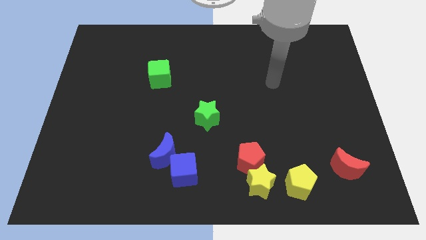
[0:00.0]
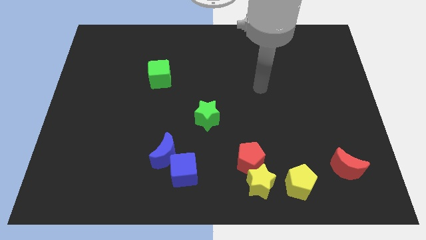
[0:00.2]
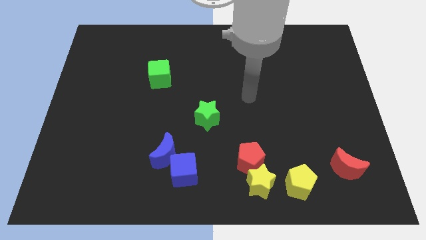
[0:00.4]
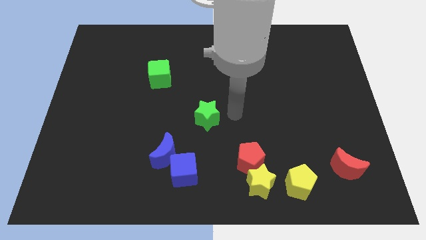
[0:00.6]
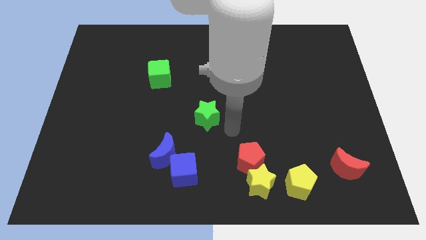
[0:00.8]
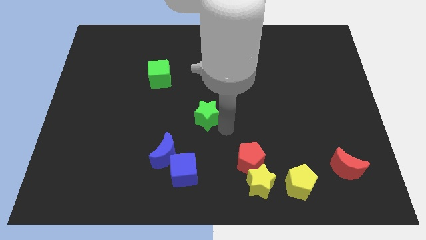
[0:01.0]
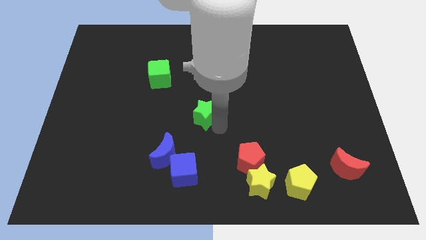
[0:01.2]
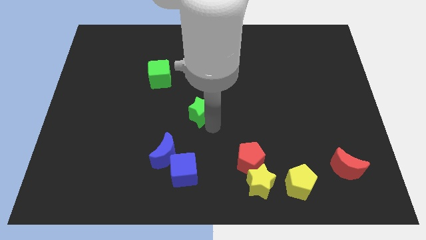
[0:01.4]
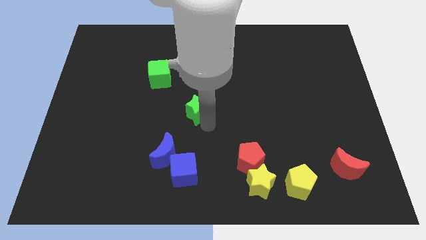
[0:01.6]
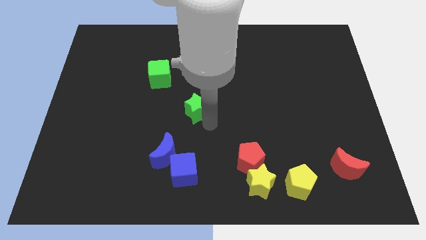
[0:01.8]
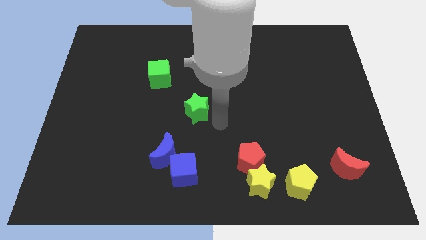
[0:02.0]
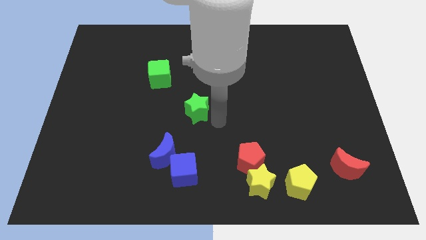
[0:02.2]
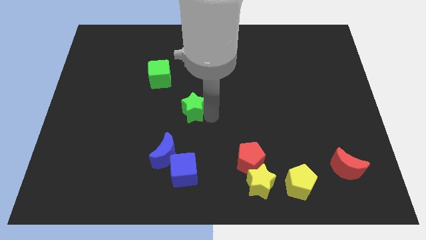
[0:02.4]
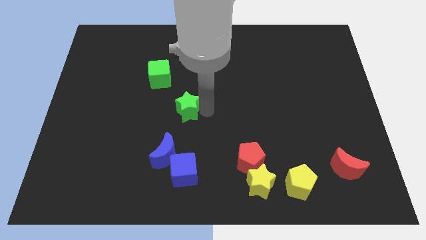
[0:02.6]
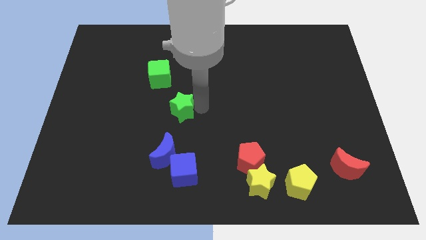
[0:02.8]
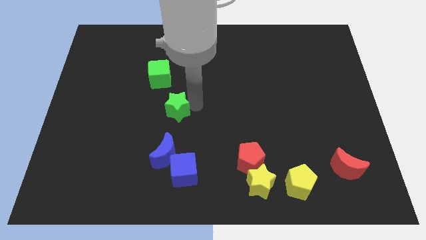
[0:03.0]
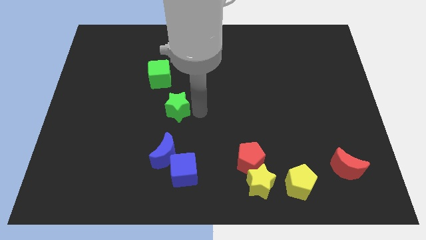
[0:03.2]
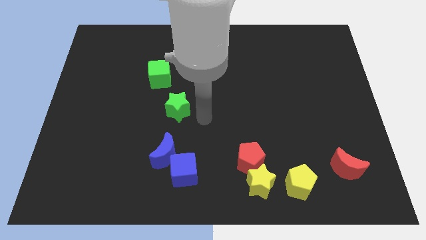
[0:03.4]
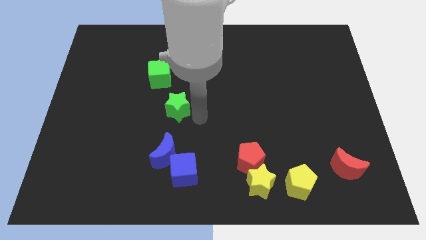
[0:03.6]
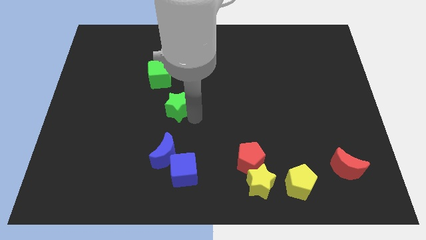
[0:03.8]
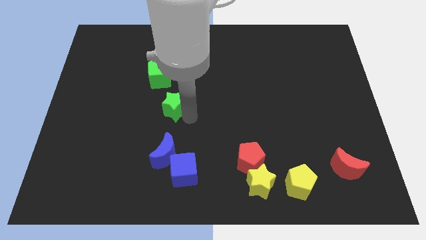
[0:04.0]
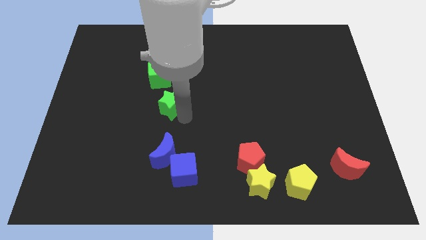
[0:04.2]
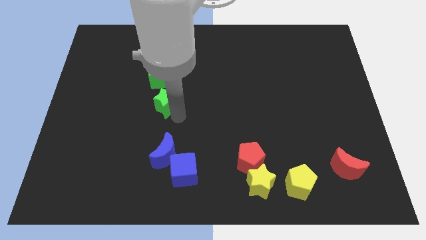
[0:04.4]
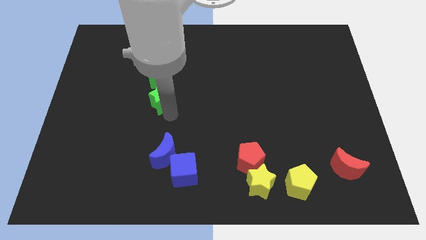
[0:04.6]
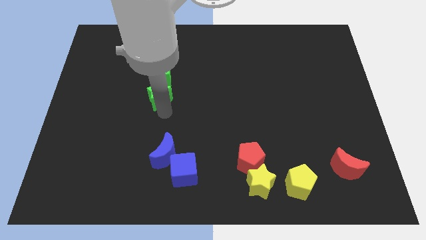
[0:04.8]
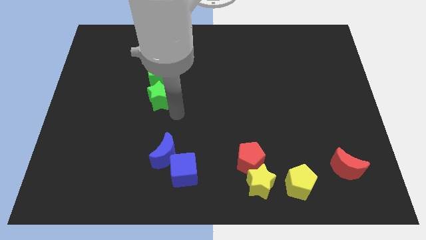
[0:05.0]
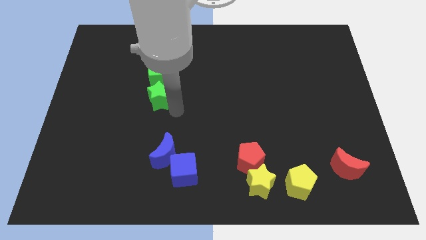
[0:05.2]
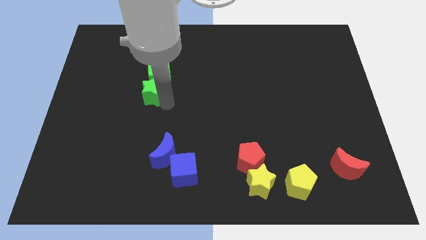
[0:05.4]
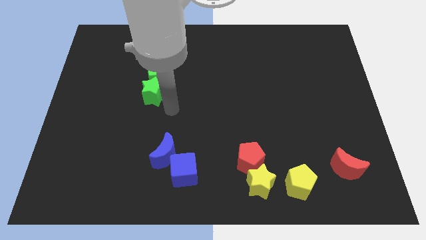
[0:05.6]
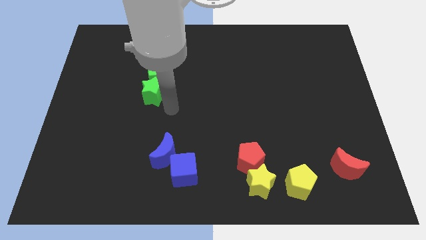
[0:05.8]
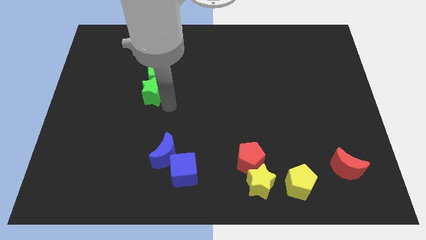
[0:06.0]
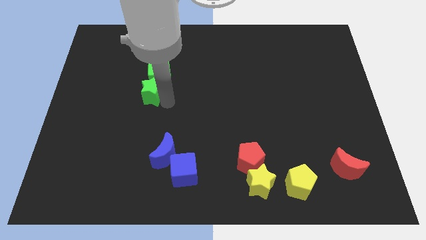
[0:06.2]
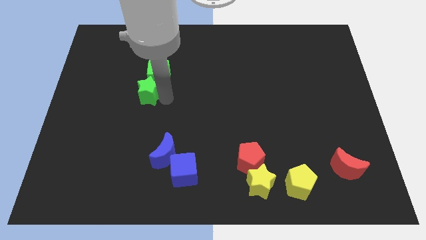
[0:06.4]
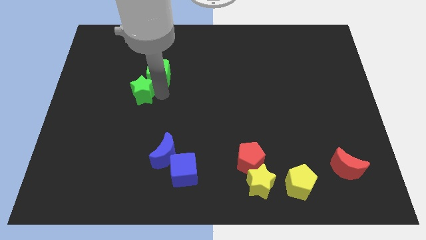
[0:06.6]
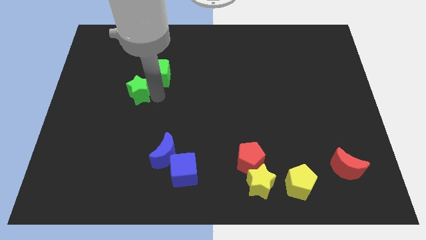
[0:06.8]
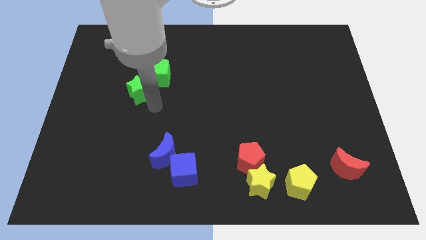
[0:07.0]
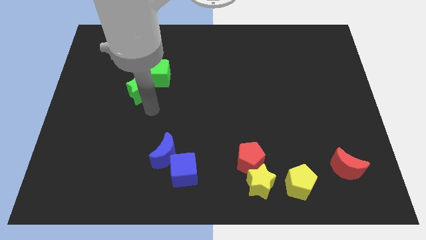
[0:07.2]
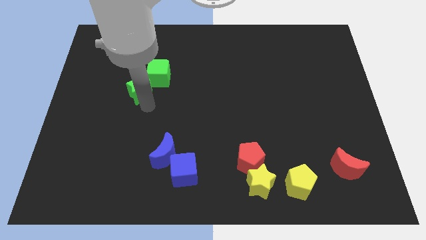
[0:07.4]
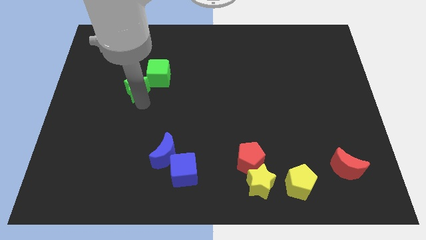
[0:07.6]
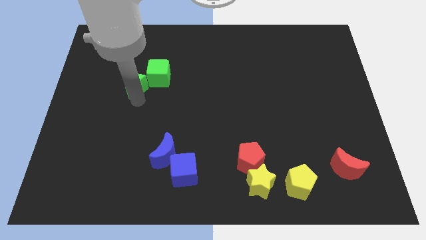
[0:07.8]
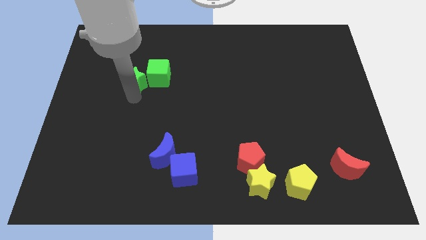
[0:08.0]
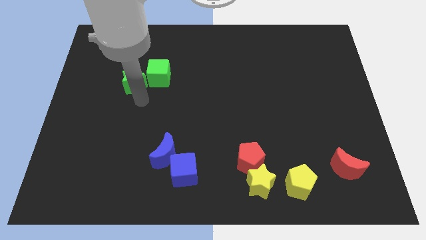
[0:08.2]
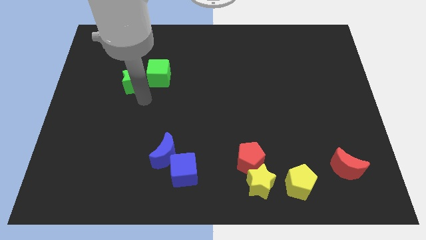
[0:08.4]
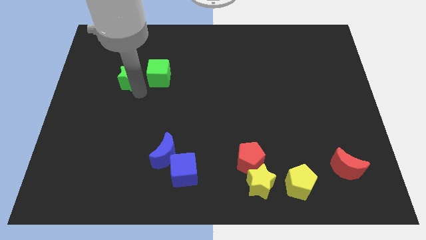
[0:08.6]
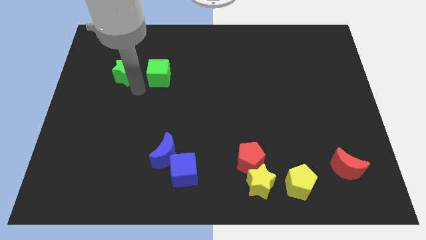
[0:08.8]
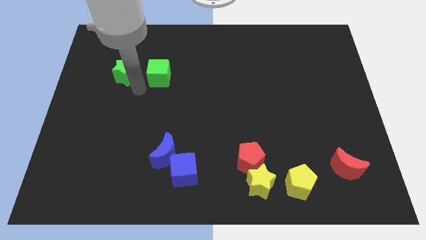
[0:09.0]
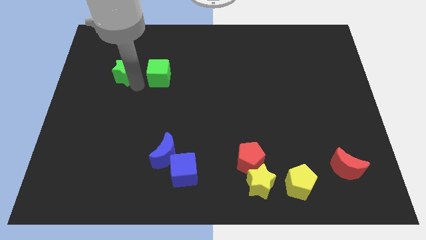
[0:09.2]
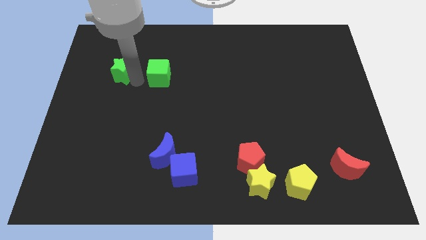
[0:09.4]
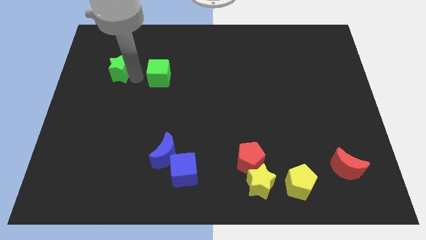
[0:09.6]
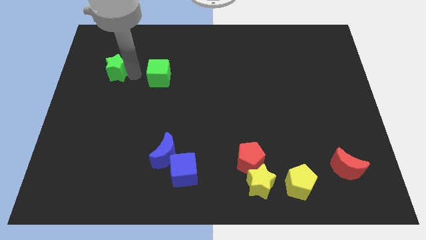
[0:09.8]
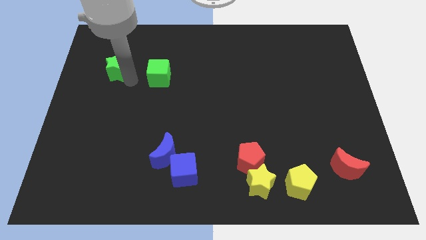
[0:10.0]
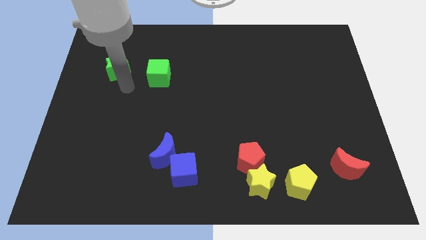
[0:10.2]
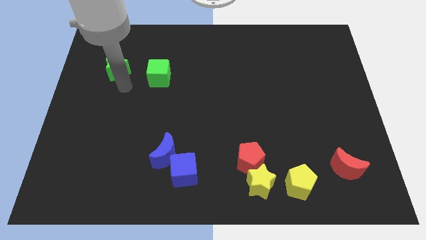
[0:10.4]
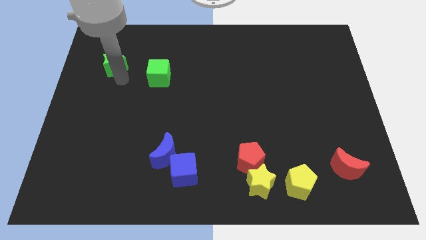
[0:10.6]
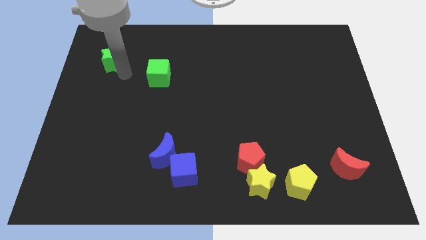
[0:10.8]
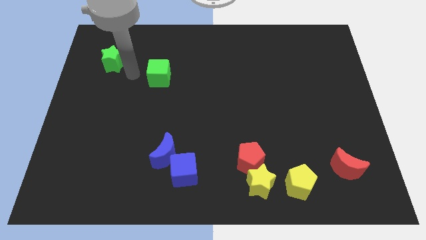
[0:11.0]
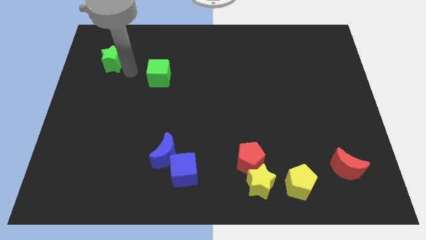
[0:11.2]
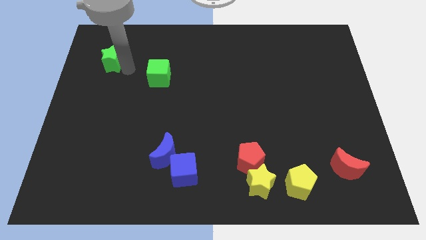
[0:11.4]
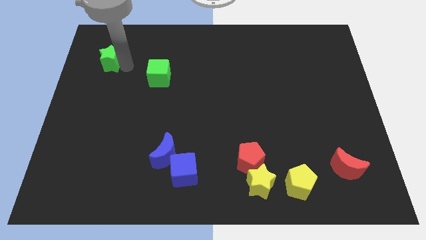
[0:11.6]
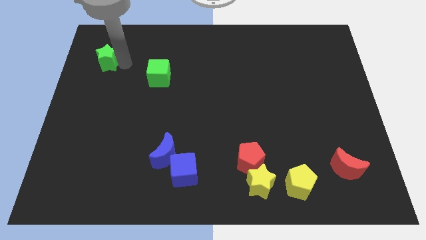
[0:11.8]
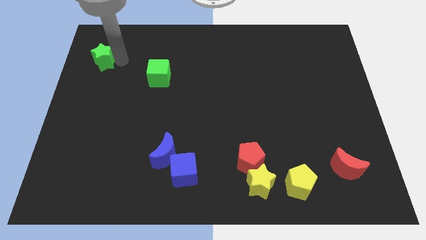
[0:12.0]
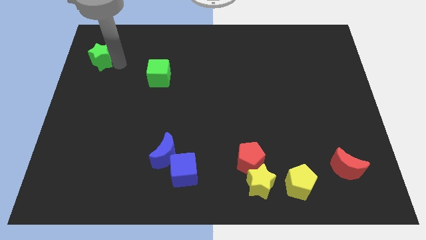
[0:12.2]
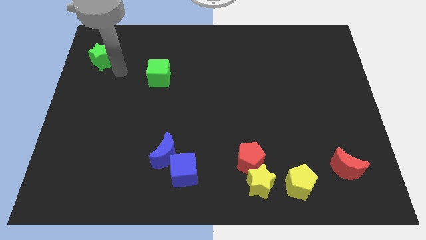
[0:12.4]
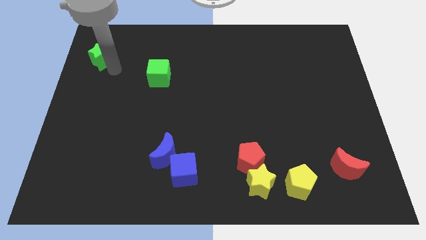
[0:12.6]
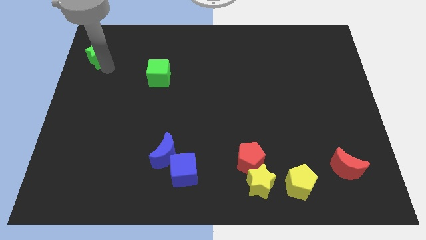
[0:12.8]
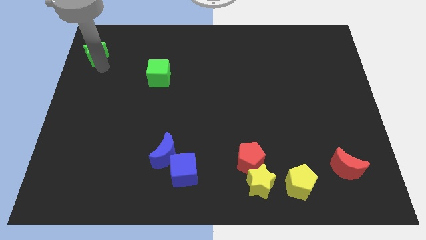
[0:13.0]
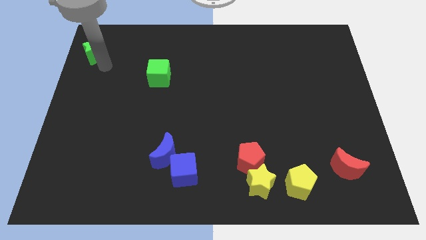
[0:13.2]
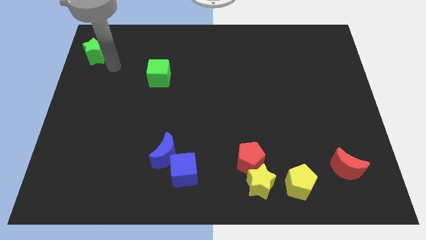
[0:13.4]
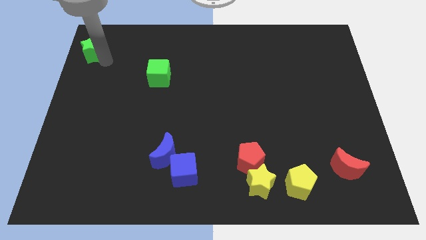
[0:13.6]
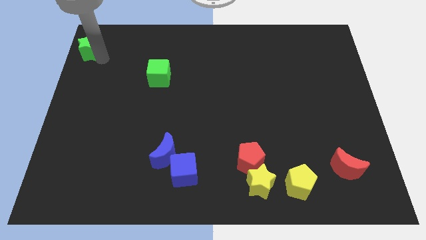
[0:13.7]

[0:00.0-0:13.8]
move the green star to the top left of the board
